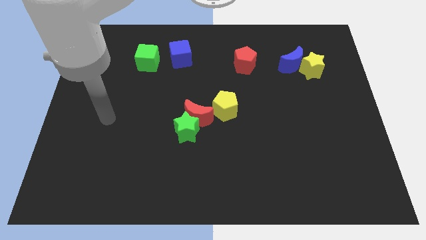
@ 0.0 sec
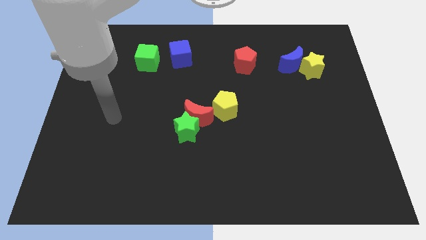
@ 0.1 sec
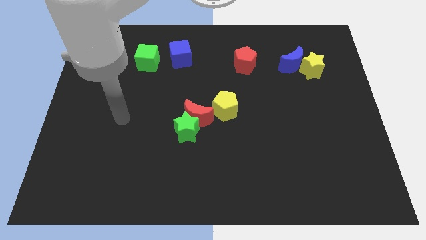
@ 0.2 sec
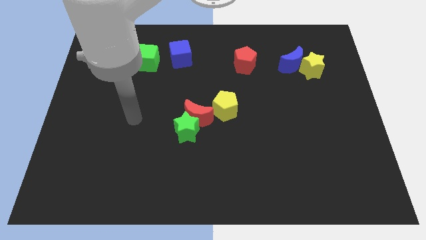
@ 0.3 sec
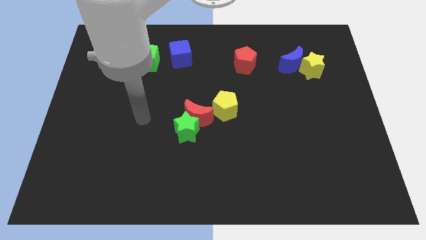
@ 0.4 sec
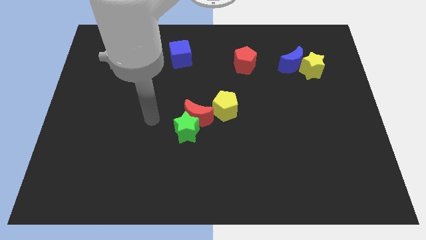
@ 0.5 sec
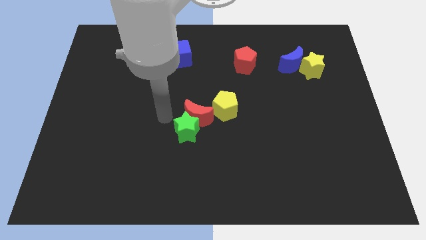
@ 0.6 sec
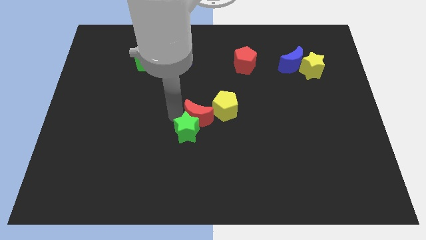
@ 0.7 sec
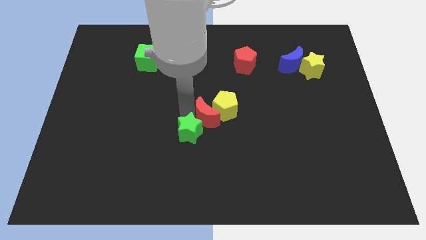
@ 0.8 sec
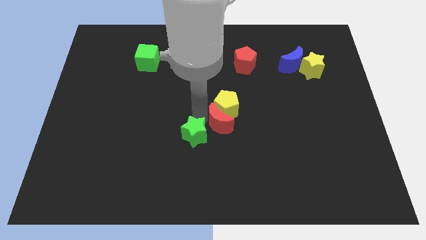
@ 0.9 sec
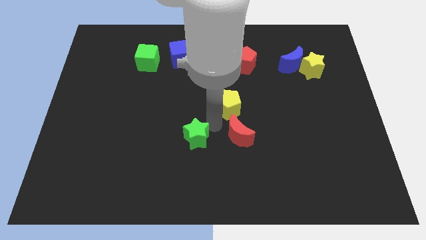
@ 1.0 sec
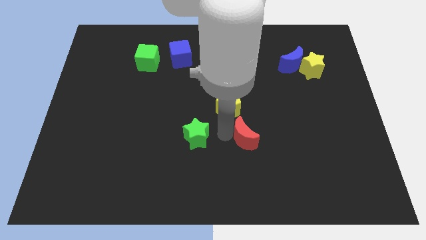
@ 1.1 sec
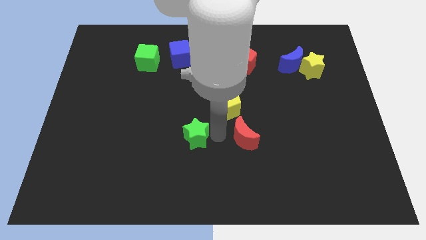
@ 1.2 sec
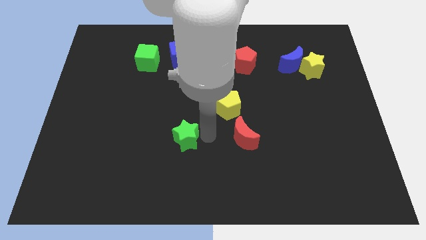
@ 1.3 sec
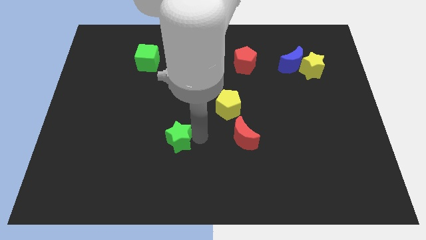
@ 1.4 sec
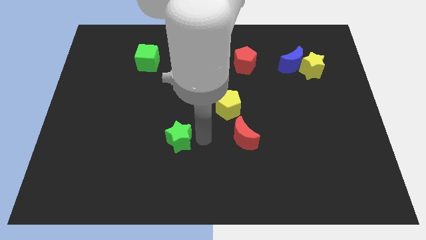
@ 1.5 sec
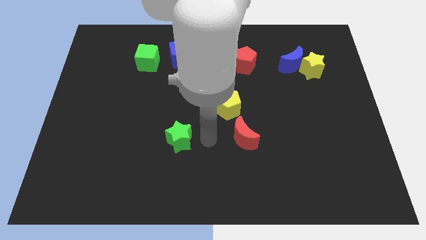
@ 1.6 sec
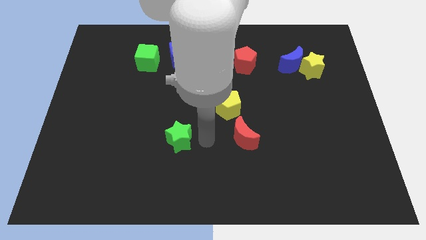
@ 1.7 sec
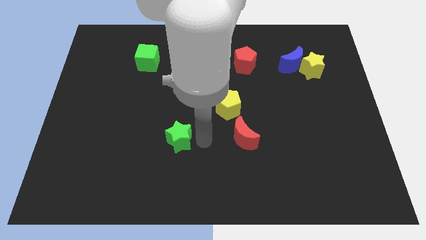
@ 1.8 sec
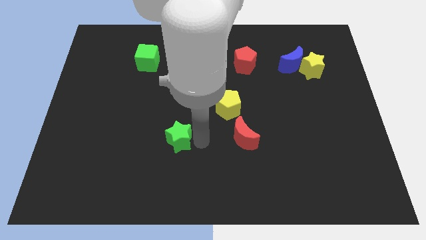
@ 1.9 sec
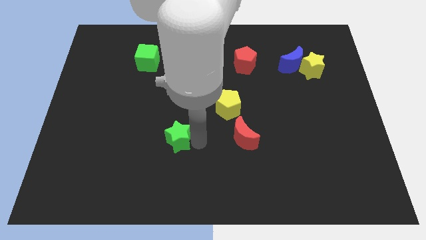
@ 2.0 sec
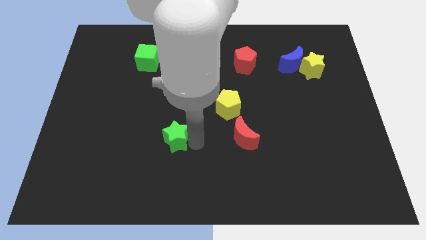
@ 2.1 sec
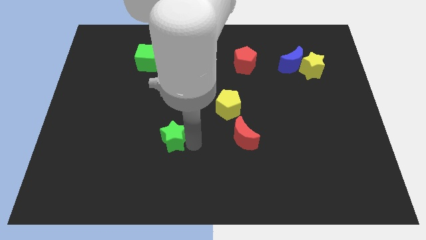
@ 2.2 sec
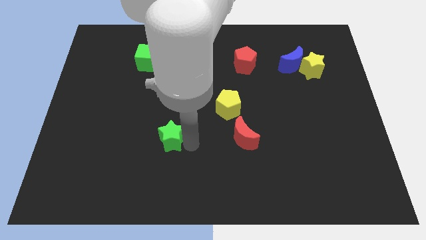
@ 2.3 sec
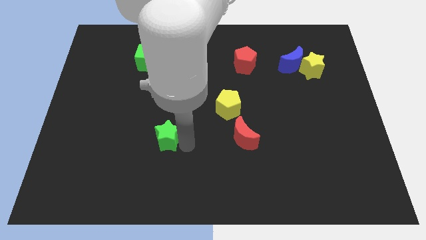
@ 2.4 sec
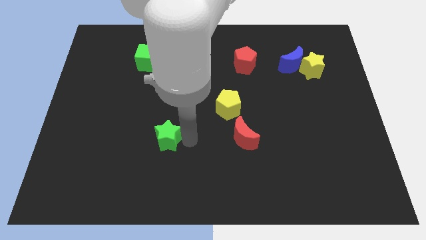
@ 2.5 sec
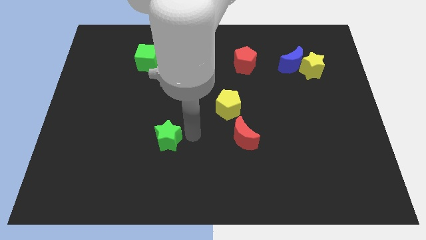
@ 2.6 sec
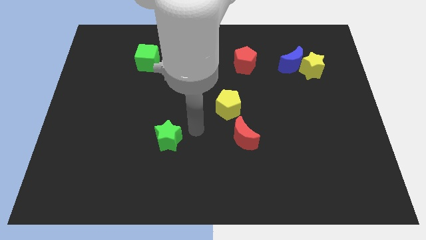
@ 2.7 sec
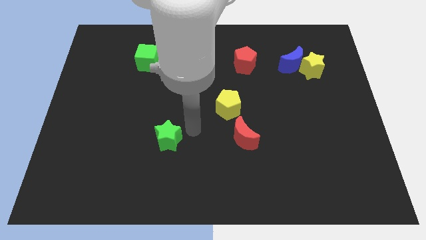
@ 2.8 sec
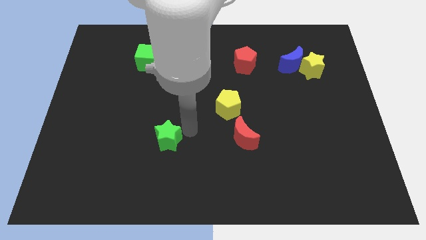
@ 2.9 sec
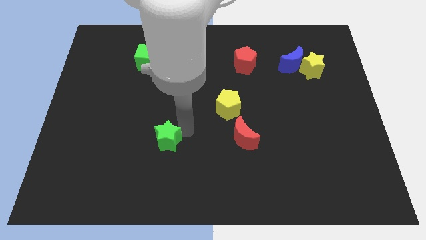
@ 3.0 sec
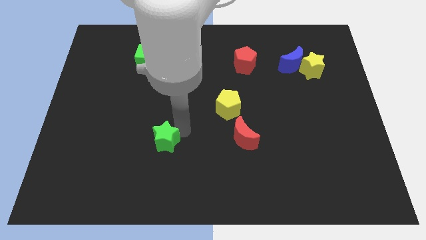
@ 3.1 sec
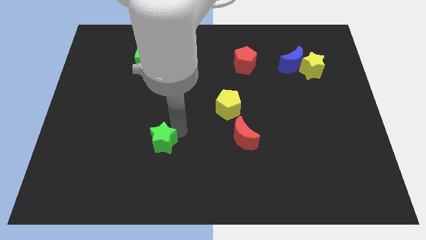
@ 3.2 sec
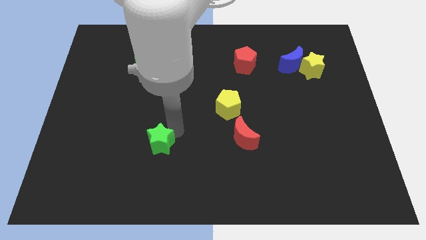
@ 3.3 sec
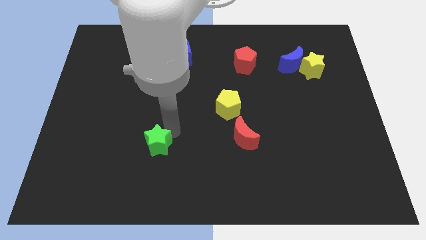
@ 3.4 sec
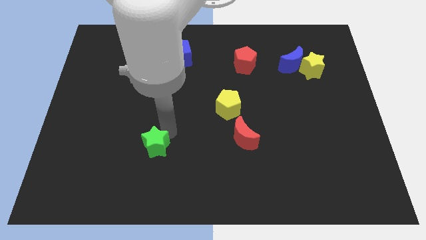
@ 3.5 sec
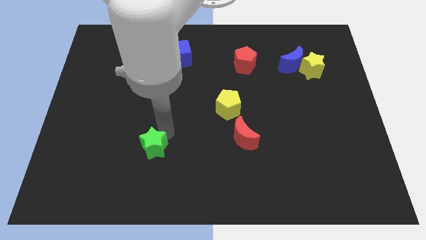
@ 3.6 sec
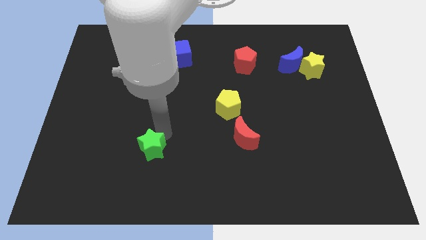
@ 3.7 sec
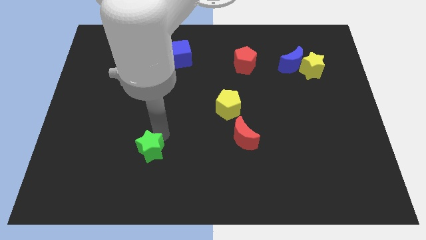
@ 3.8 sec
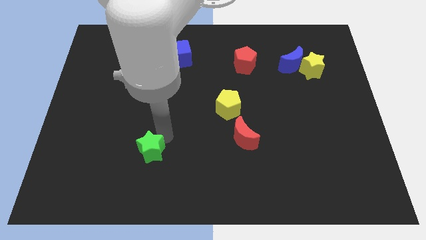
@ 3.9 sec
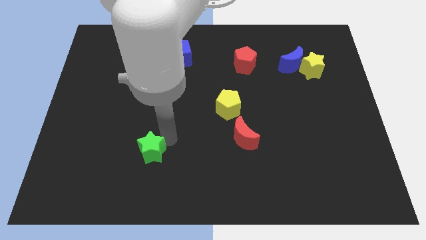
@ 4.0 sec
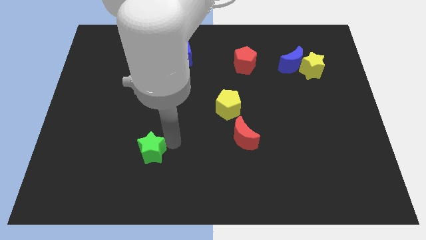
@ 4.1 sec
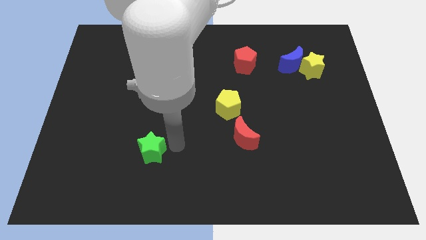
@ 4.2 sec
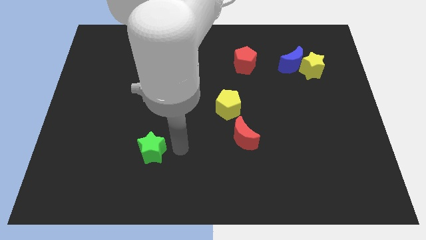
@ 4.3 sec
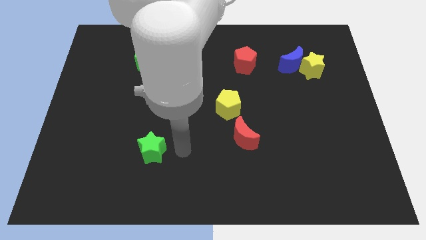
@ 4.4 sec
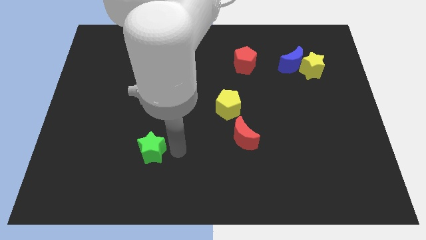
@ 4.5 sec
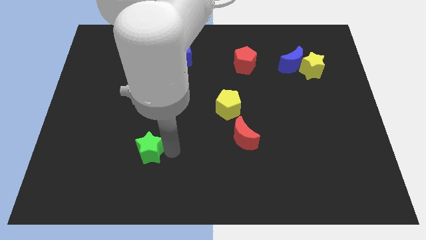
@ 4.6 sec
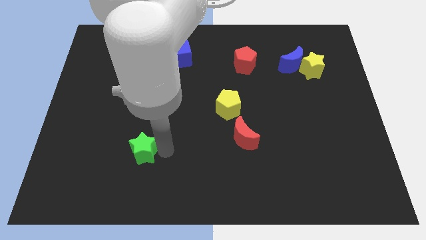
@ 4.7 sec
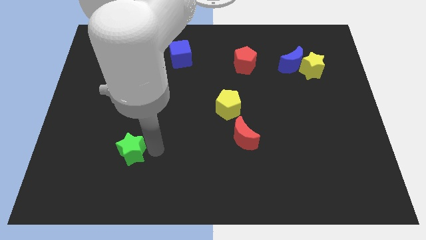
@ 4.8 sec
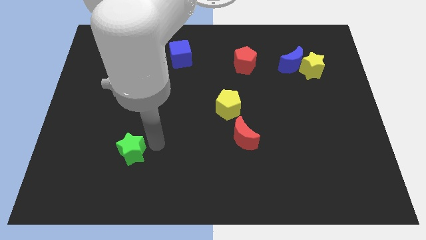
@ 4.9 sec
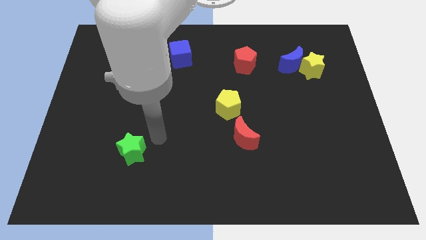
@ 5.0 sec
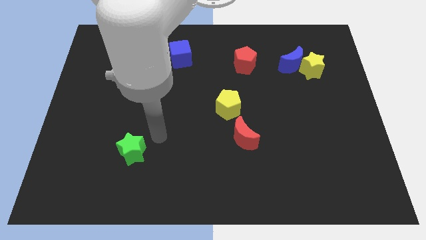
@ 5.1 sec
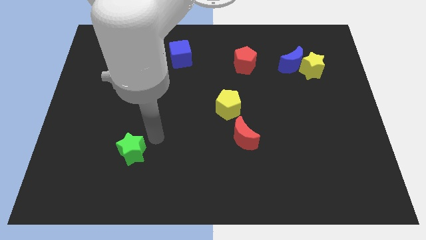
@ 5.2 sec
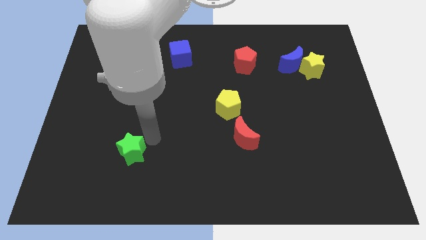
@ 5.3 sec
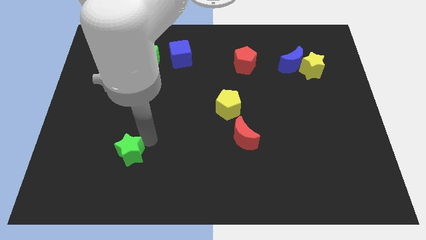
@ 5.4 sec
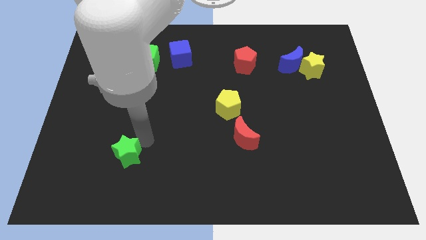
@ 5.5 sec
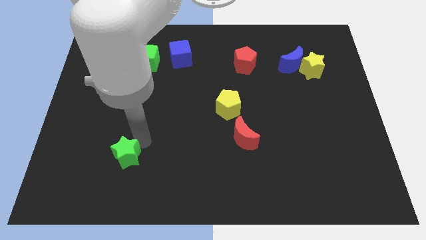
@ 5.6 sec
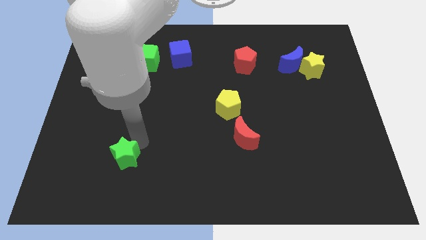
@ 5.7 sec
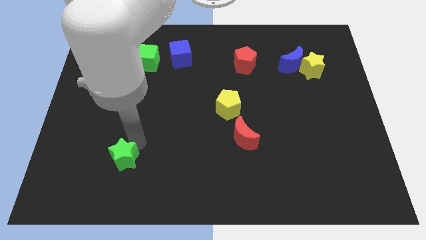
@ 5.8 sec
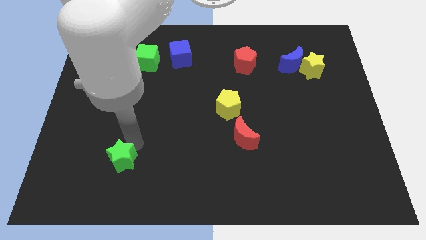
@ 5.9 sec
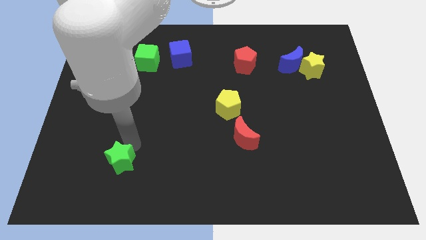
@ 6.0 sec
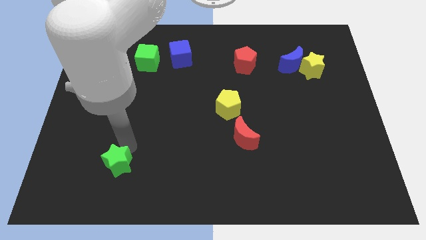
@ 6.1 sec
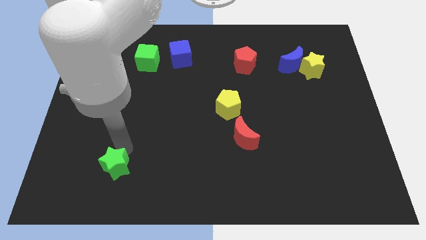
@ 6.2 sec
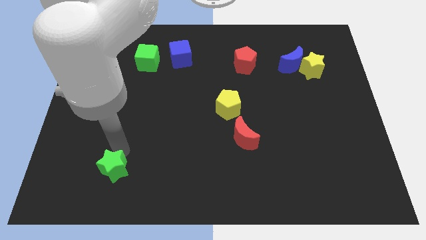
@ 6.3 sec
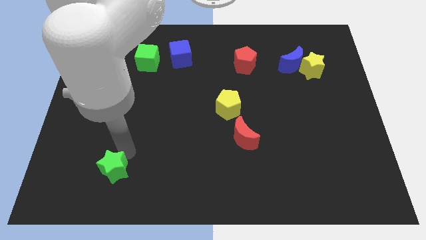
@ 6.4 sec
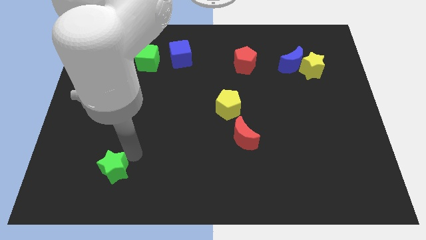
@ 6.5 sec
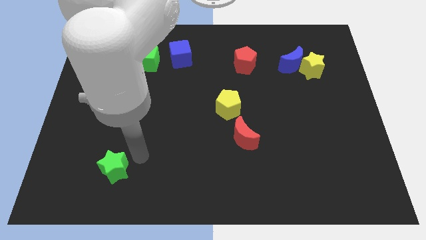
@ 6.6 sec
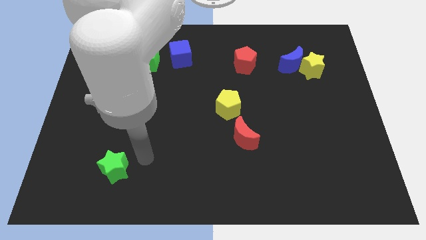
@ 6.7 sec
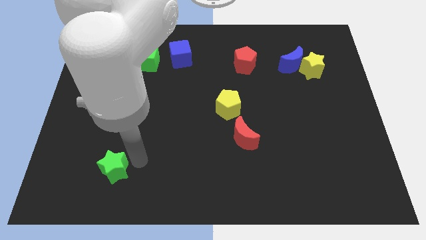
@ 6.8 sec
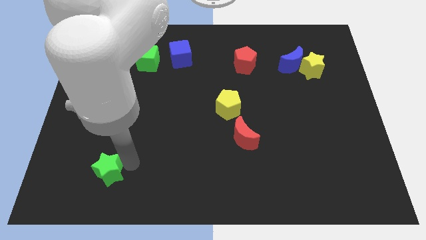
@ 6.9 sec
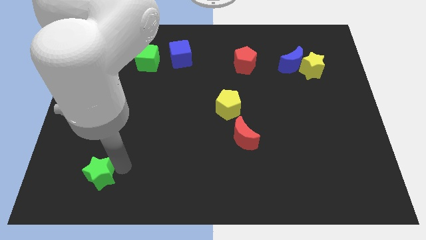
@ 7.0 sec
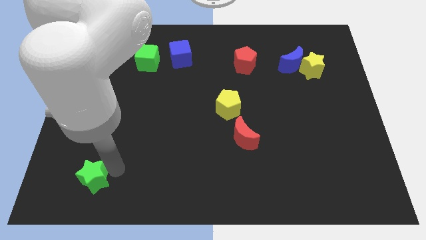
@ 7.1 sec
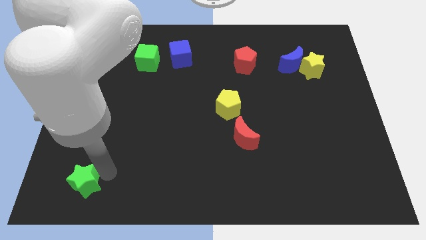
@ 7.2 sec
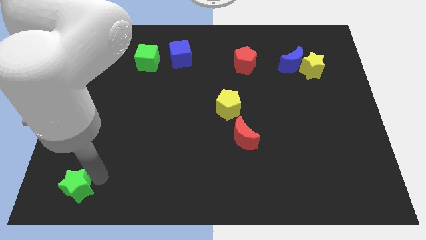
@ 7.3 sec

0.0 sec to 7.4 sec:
put the green star to the bottom left of the board
